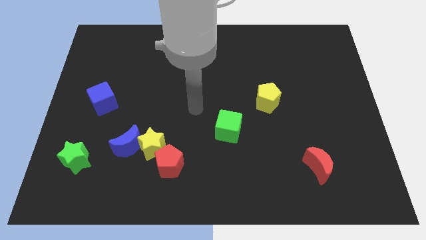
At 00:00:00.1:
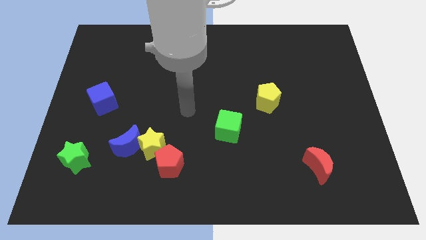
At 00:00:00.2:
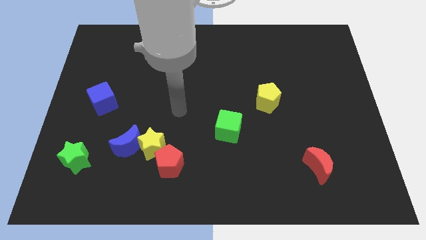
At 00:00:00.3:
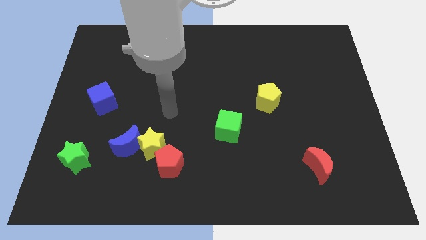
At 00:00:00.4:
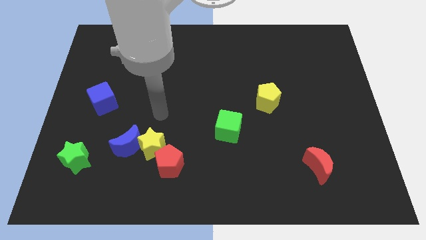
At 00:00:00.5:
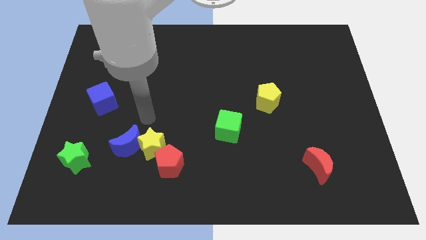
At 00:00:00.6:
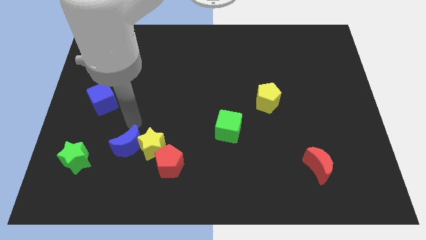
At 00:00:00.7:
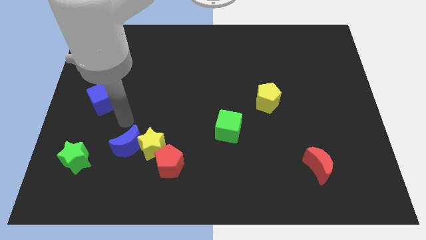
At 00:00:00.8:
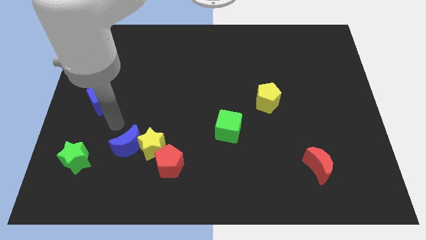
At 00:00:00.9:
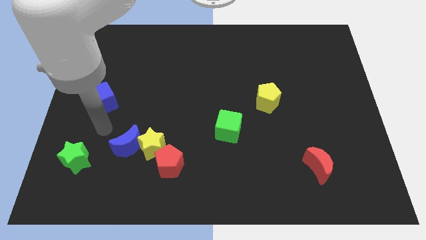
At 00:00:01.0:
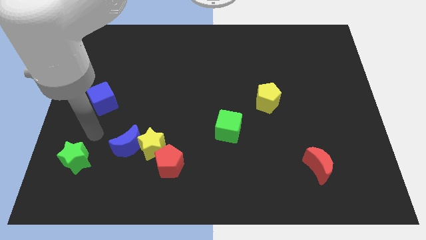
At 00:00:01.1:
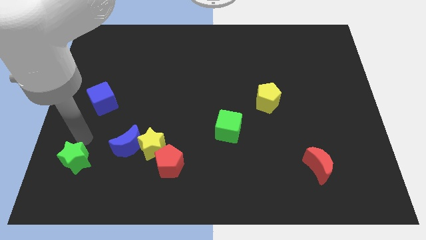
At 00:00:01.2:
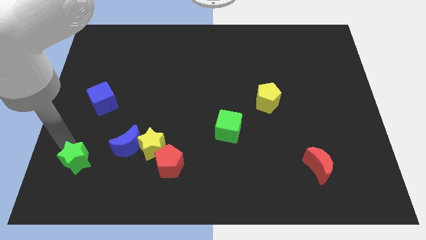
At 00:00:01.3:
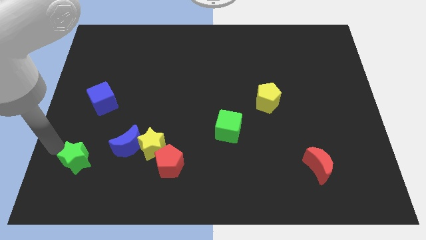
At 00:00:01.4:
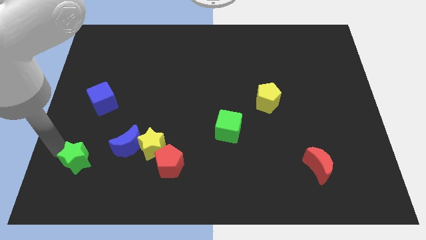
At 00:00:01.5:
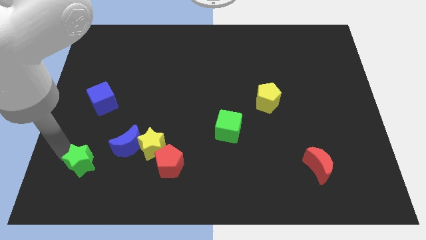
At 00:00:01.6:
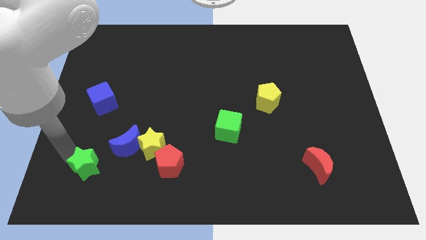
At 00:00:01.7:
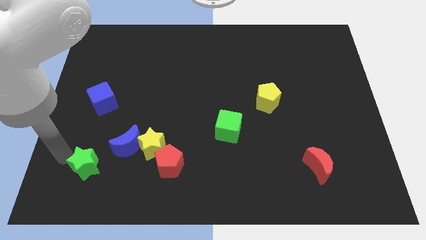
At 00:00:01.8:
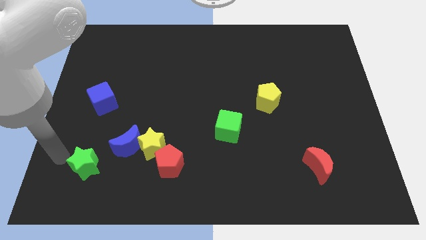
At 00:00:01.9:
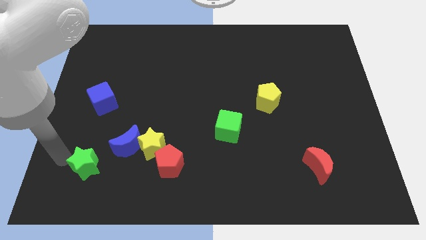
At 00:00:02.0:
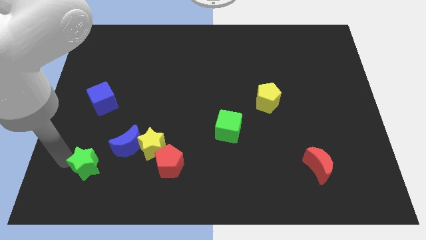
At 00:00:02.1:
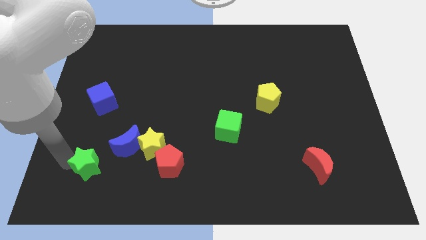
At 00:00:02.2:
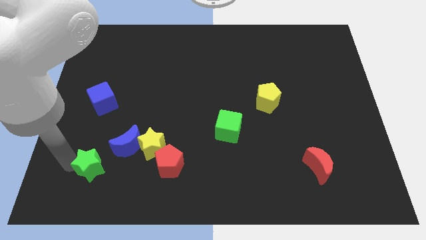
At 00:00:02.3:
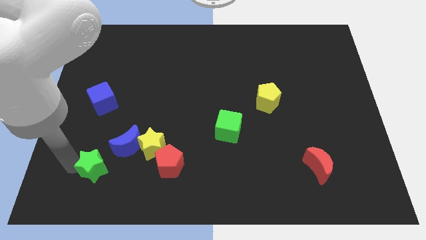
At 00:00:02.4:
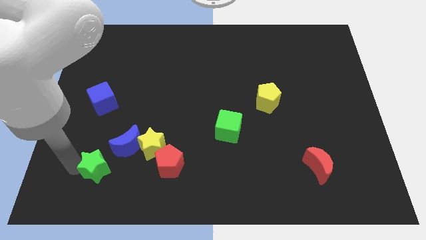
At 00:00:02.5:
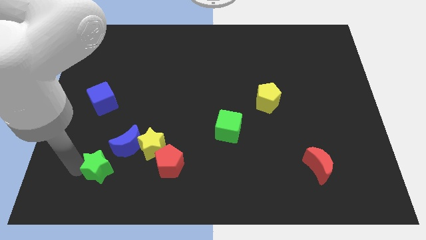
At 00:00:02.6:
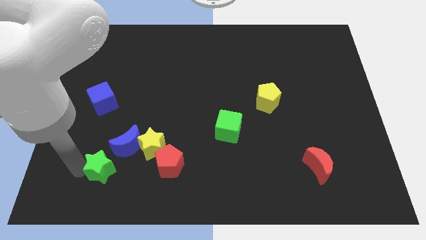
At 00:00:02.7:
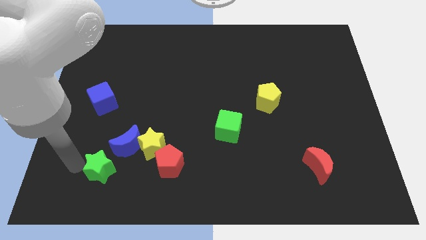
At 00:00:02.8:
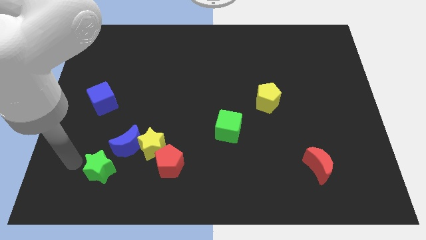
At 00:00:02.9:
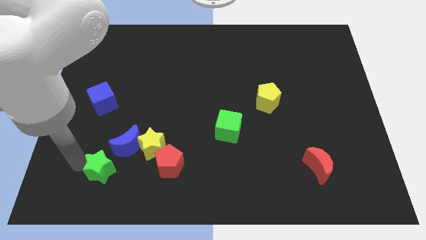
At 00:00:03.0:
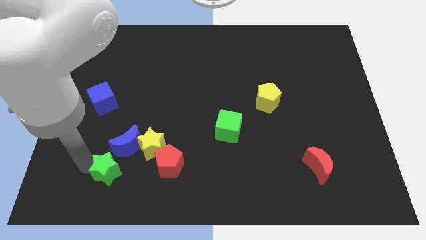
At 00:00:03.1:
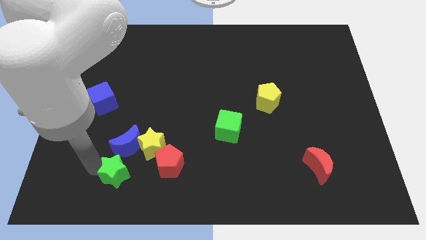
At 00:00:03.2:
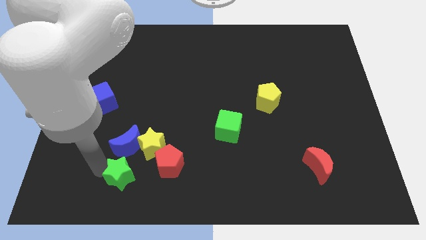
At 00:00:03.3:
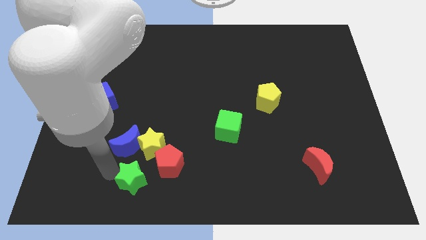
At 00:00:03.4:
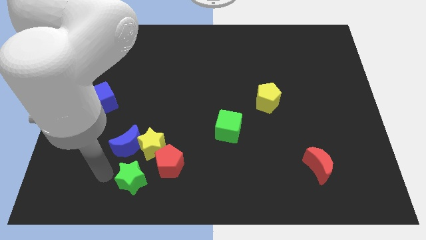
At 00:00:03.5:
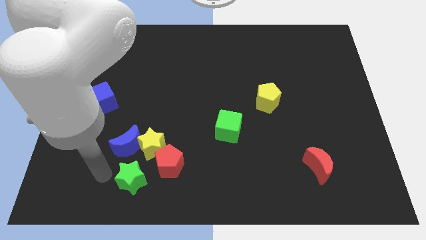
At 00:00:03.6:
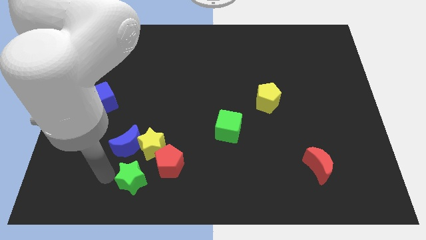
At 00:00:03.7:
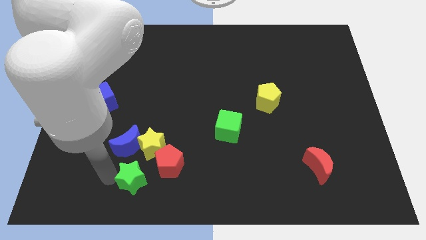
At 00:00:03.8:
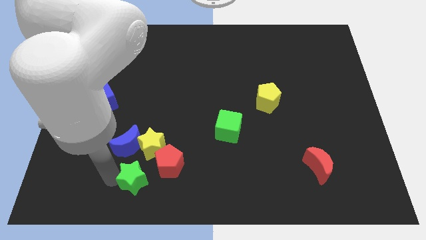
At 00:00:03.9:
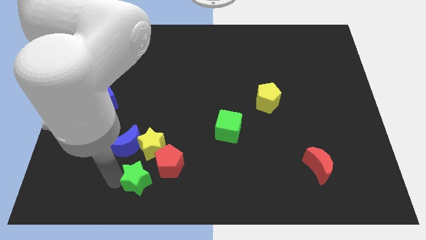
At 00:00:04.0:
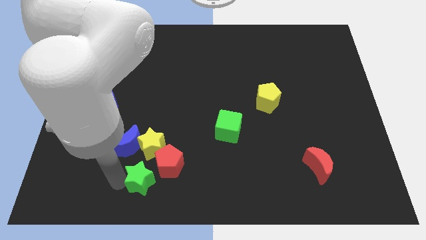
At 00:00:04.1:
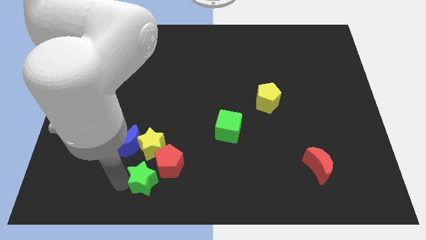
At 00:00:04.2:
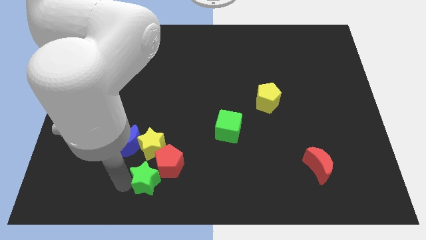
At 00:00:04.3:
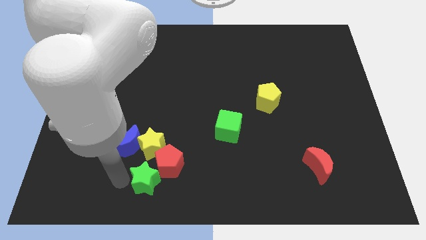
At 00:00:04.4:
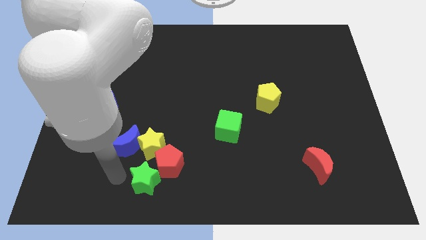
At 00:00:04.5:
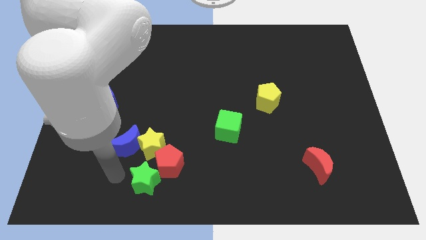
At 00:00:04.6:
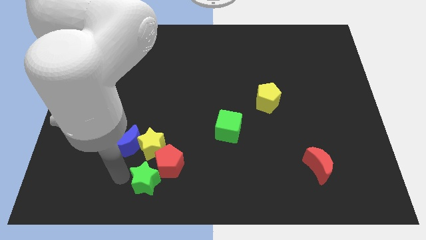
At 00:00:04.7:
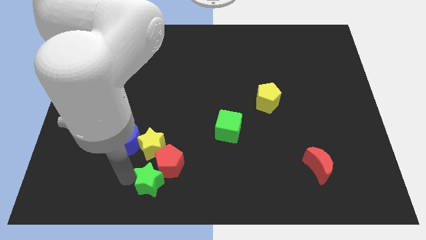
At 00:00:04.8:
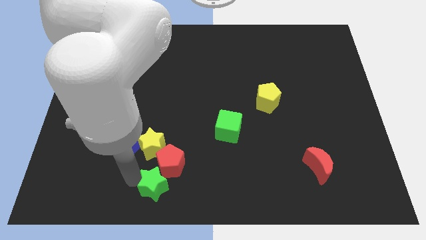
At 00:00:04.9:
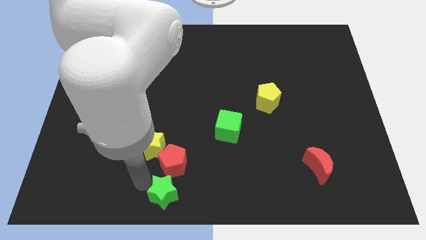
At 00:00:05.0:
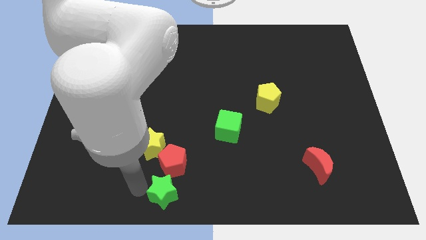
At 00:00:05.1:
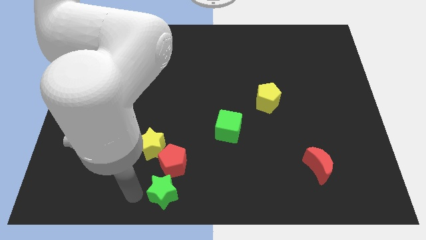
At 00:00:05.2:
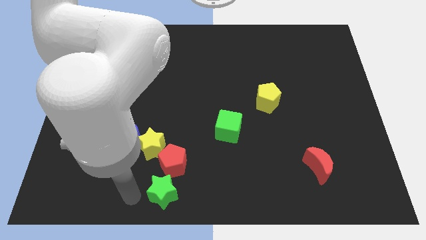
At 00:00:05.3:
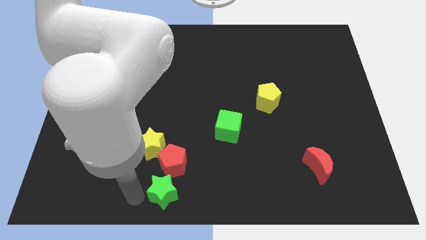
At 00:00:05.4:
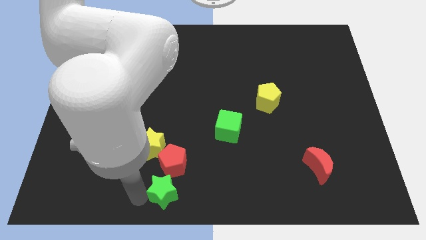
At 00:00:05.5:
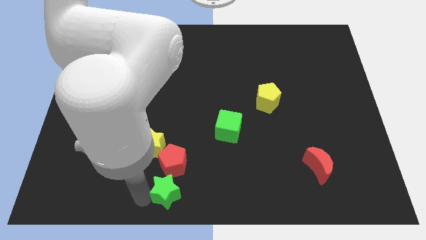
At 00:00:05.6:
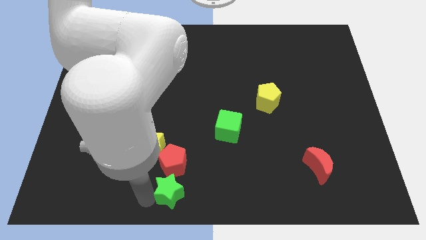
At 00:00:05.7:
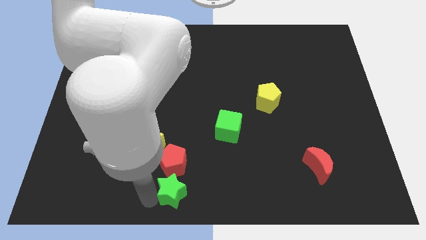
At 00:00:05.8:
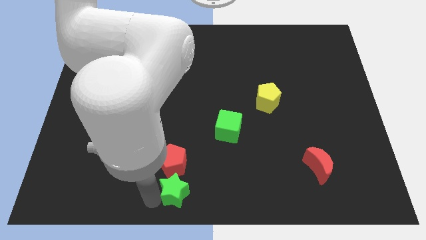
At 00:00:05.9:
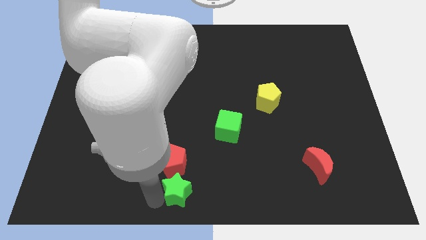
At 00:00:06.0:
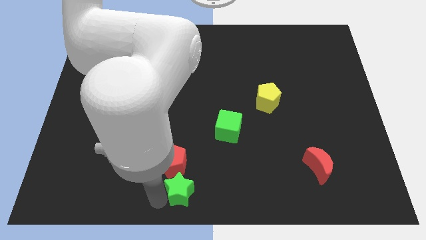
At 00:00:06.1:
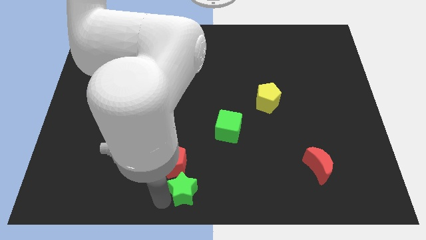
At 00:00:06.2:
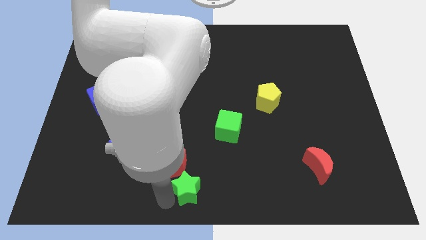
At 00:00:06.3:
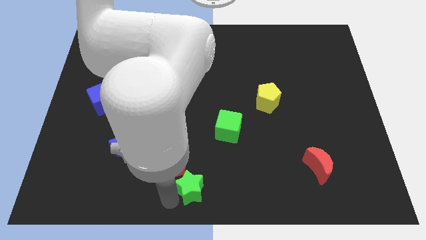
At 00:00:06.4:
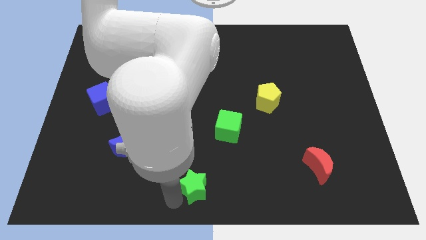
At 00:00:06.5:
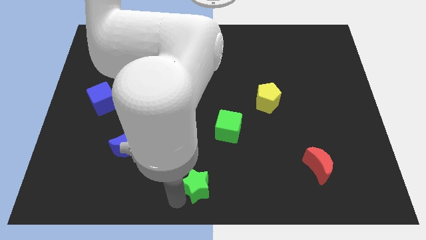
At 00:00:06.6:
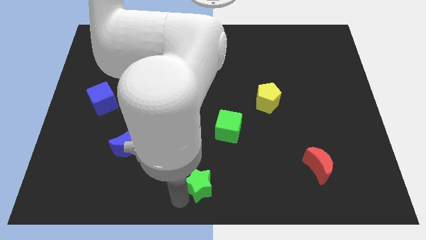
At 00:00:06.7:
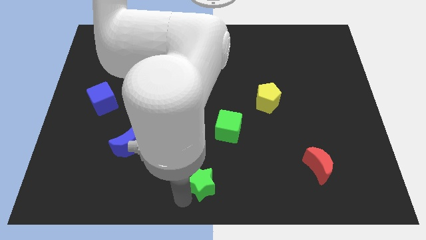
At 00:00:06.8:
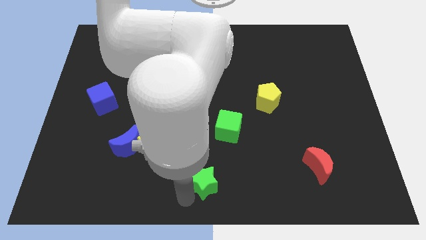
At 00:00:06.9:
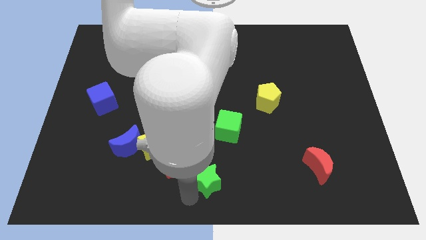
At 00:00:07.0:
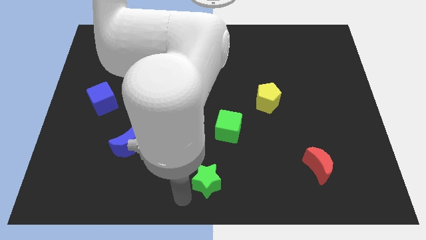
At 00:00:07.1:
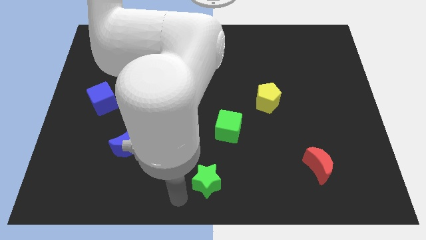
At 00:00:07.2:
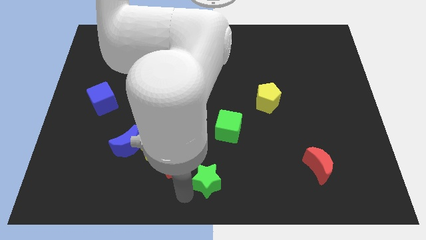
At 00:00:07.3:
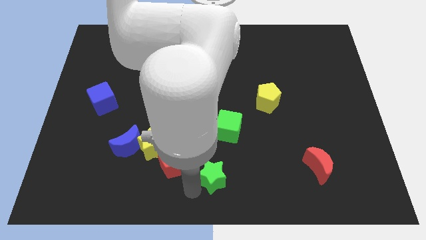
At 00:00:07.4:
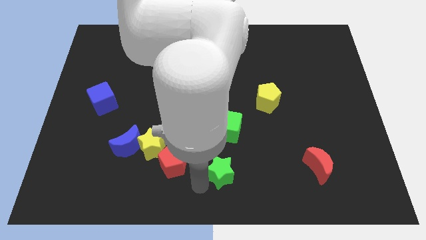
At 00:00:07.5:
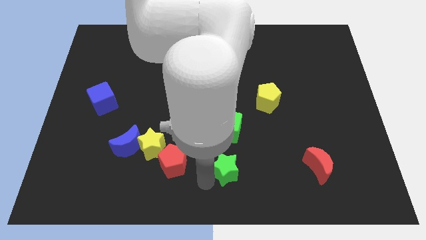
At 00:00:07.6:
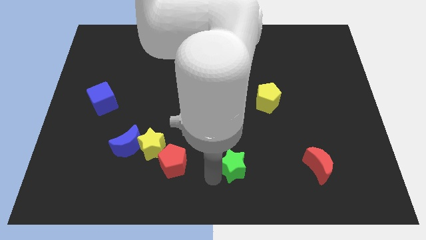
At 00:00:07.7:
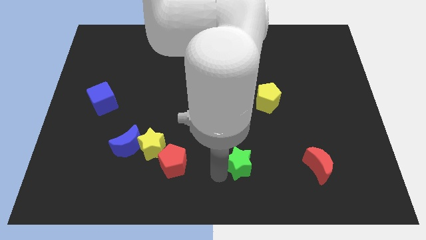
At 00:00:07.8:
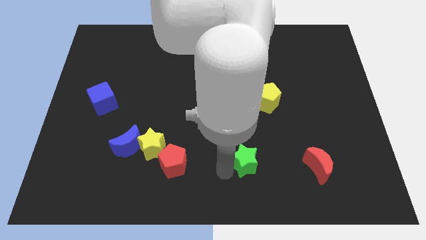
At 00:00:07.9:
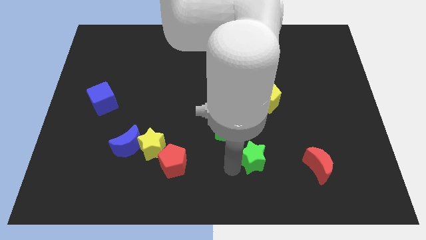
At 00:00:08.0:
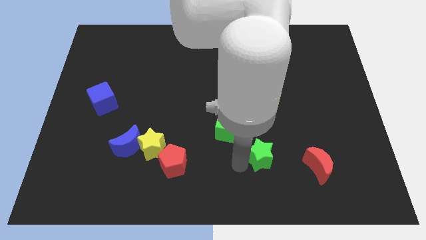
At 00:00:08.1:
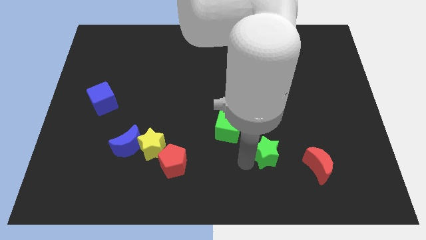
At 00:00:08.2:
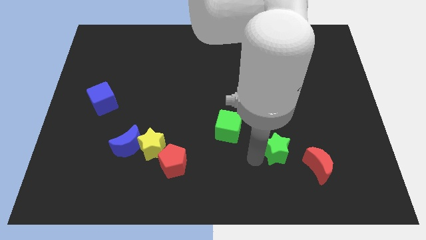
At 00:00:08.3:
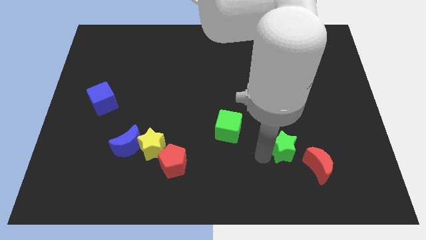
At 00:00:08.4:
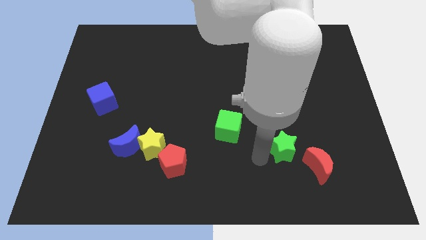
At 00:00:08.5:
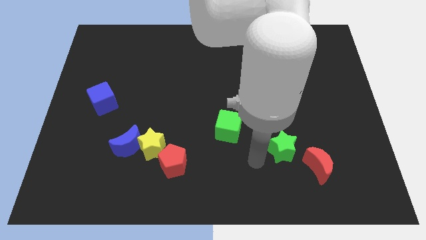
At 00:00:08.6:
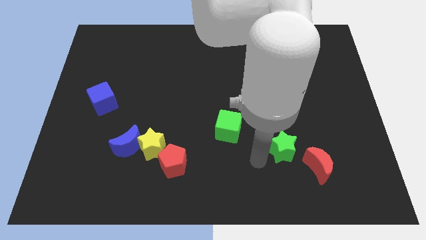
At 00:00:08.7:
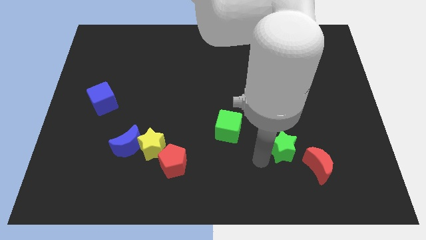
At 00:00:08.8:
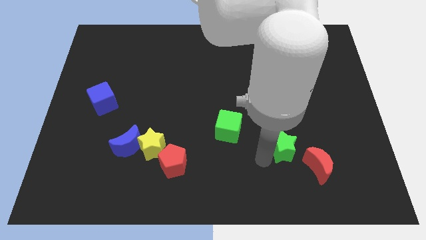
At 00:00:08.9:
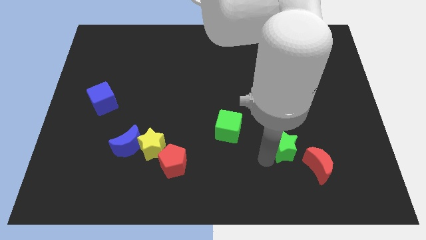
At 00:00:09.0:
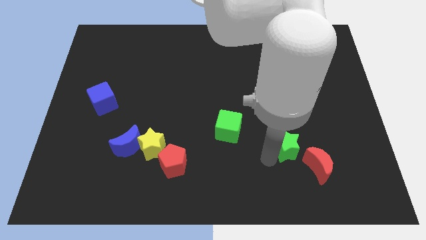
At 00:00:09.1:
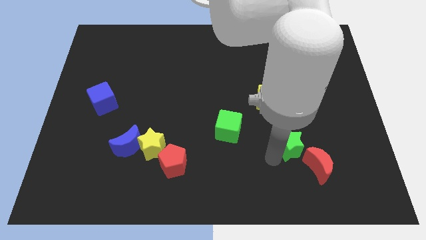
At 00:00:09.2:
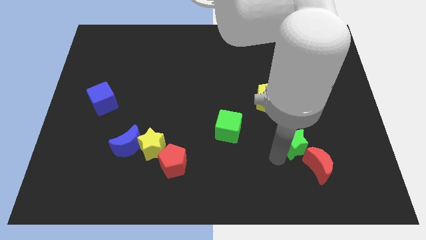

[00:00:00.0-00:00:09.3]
put the green star to the top side of the red moon
